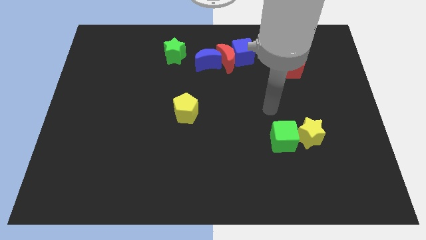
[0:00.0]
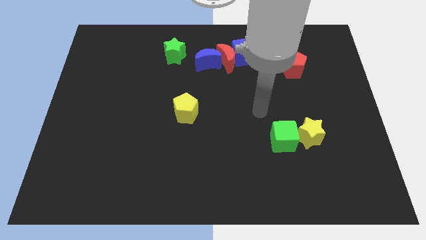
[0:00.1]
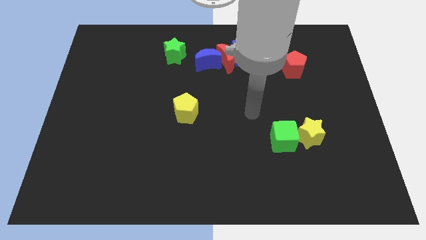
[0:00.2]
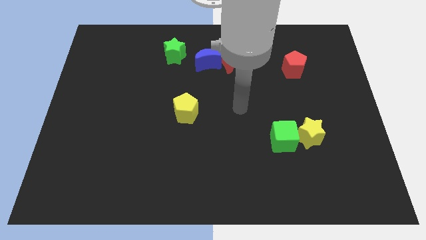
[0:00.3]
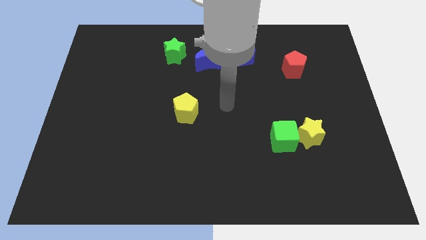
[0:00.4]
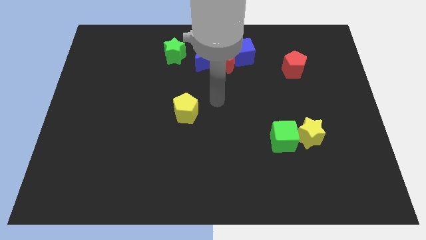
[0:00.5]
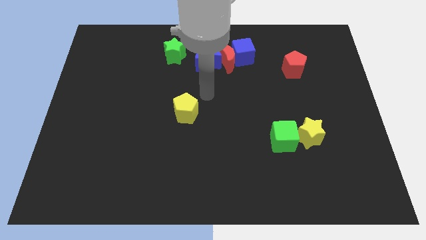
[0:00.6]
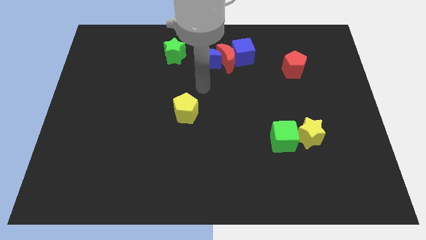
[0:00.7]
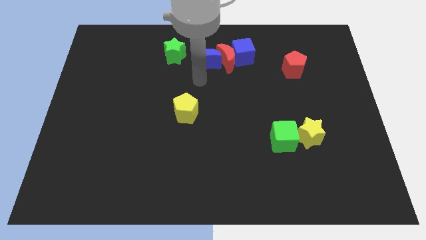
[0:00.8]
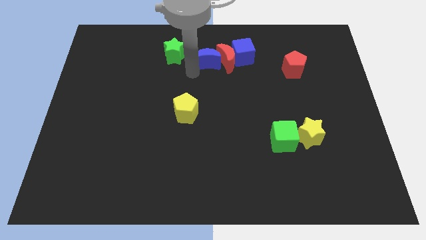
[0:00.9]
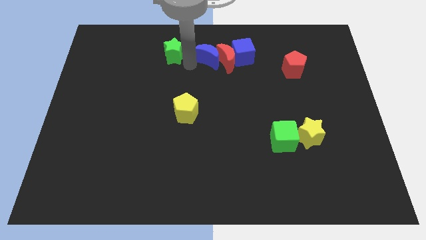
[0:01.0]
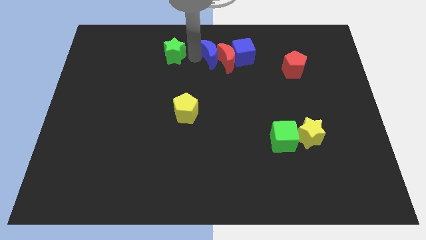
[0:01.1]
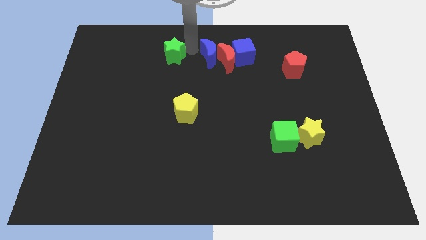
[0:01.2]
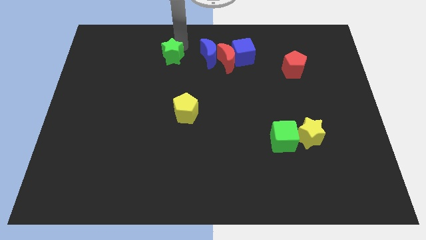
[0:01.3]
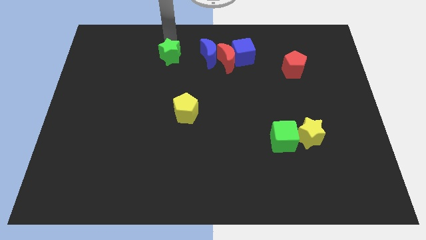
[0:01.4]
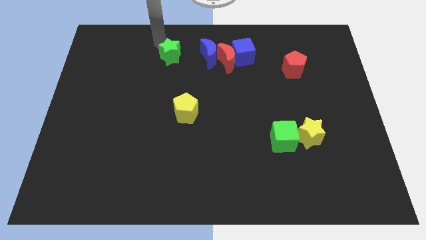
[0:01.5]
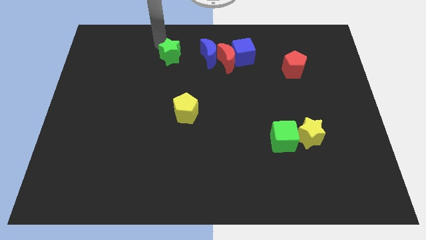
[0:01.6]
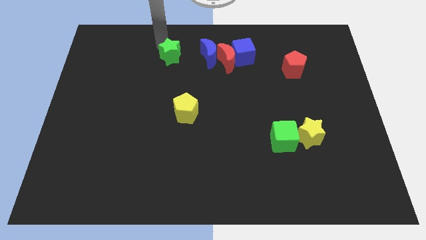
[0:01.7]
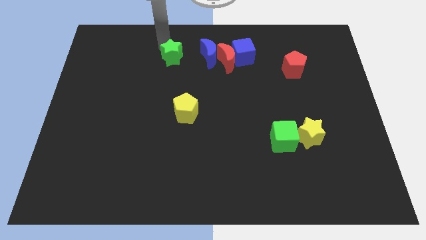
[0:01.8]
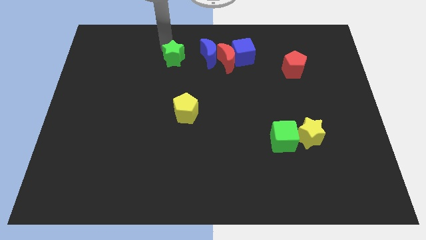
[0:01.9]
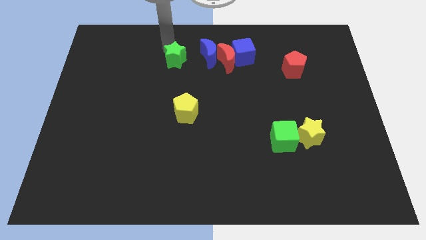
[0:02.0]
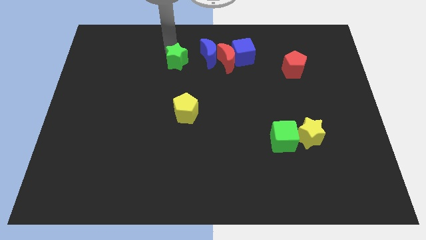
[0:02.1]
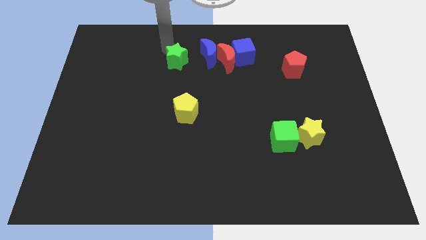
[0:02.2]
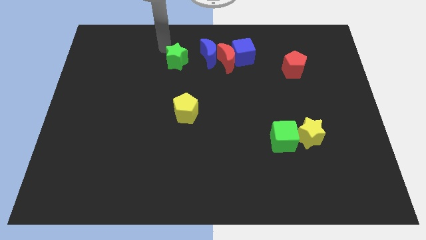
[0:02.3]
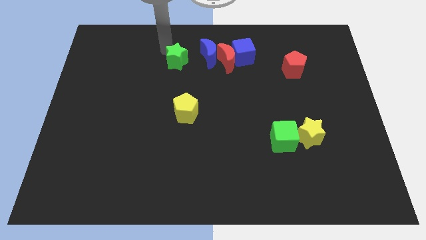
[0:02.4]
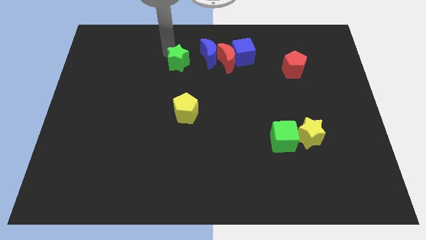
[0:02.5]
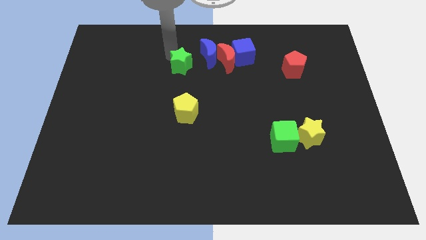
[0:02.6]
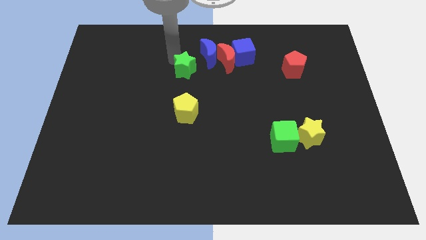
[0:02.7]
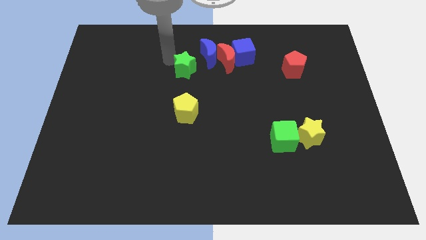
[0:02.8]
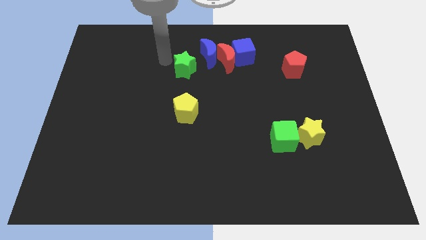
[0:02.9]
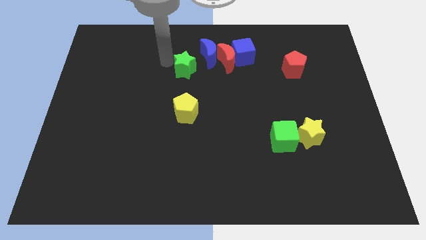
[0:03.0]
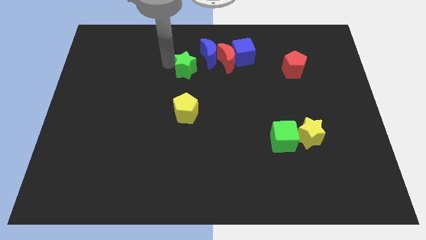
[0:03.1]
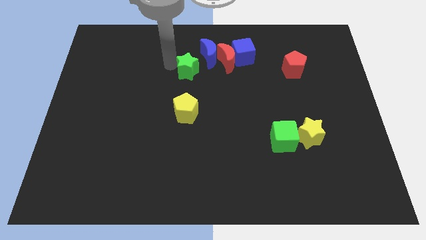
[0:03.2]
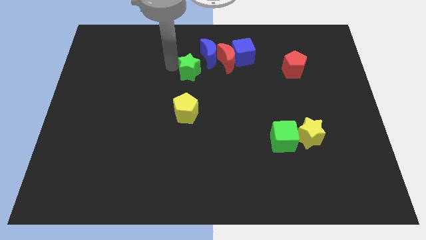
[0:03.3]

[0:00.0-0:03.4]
move the green star somewhat down and then to the right

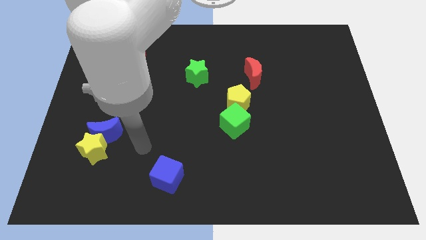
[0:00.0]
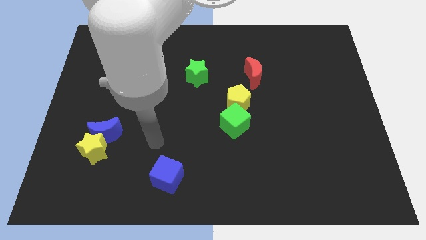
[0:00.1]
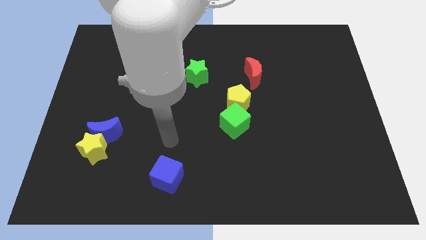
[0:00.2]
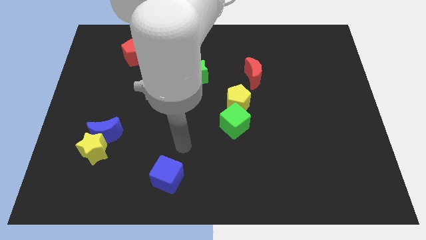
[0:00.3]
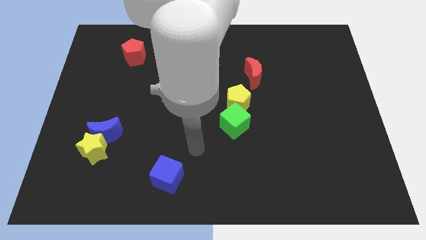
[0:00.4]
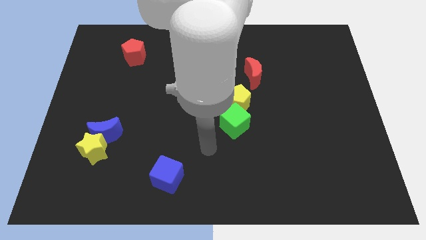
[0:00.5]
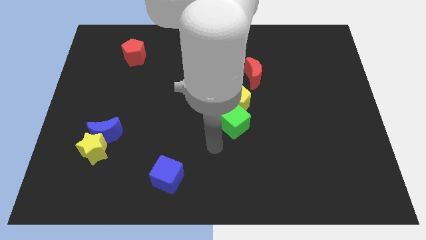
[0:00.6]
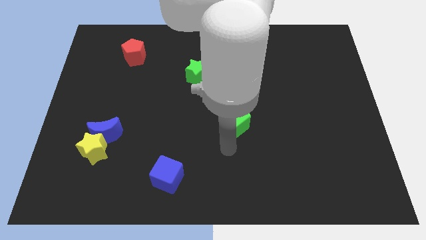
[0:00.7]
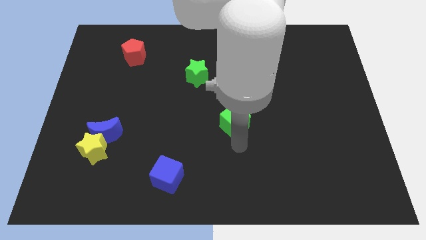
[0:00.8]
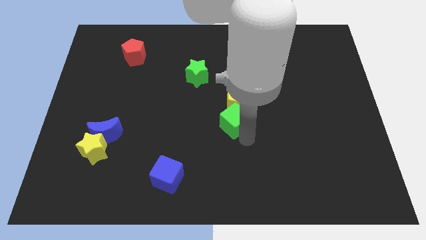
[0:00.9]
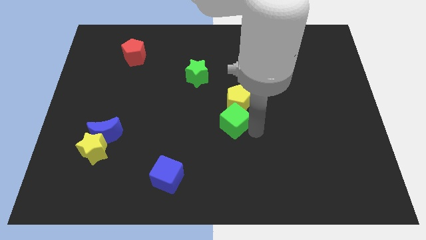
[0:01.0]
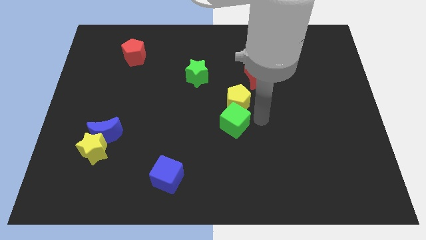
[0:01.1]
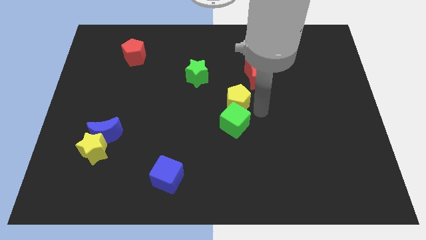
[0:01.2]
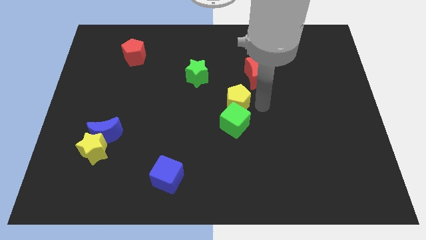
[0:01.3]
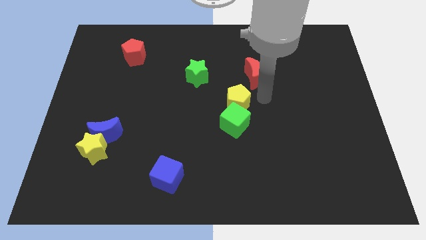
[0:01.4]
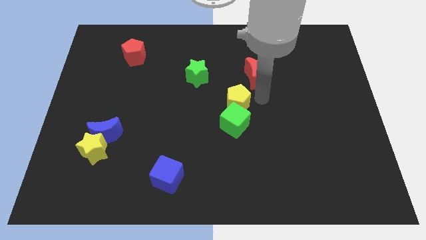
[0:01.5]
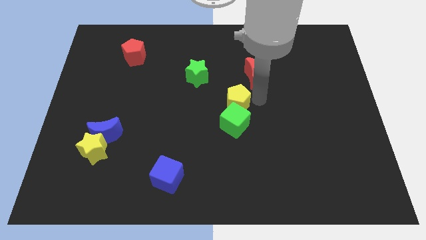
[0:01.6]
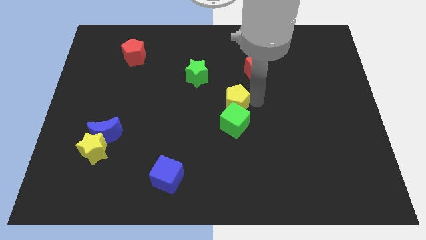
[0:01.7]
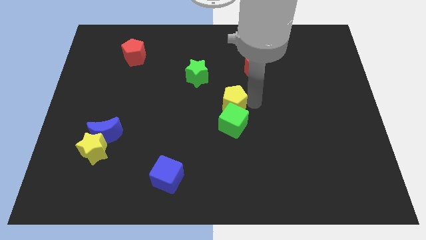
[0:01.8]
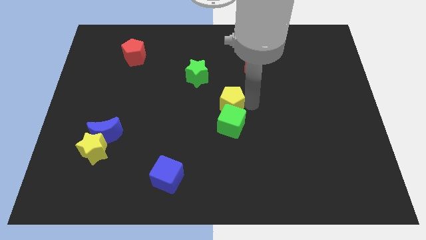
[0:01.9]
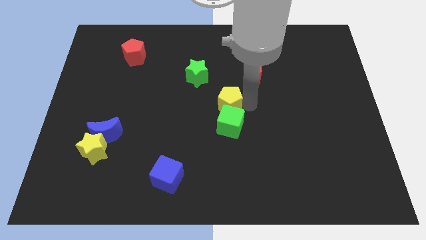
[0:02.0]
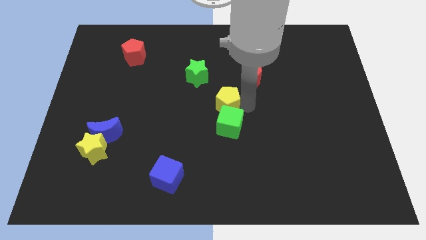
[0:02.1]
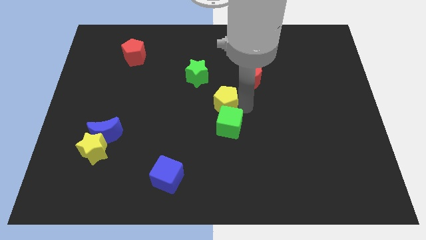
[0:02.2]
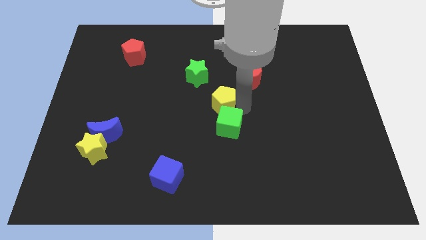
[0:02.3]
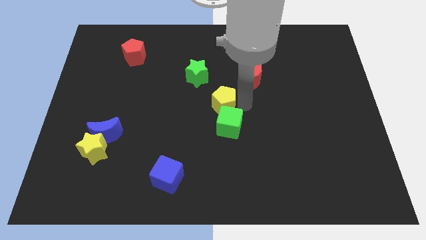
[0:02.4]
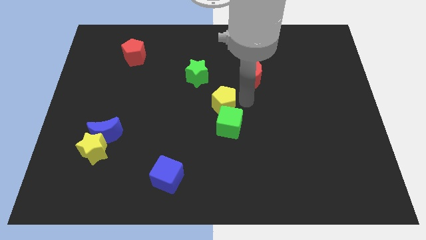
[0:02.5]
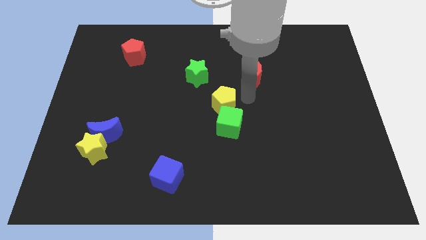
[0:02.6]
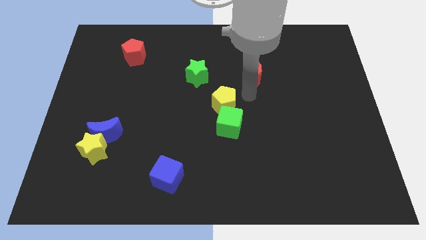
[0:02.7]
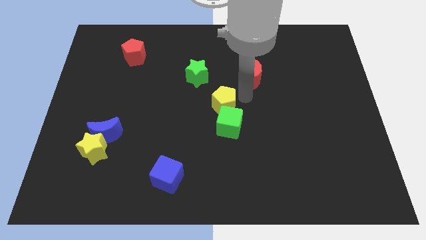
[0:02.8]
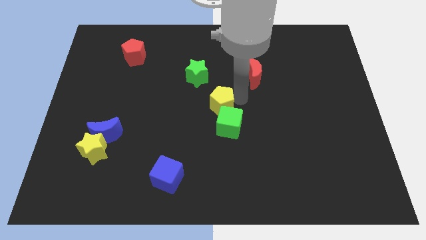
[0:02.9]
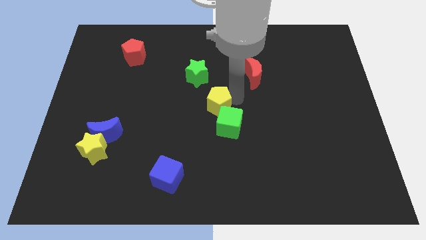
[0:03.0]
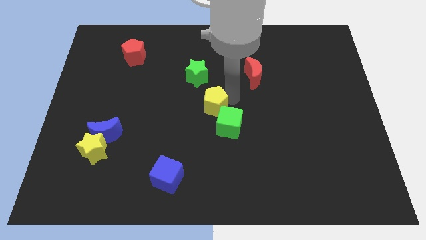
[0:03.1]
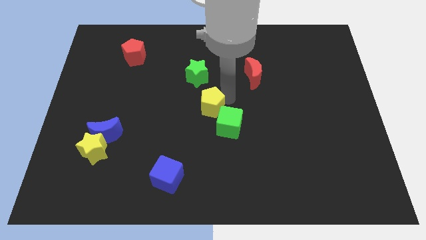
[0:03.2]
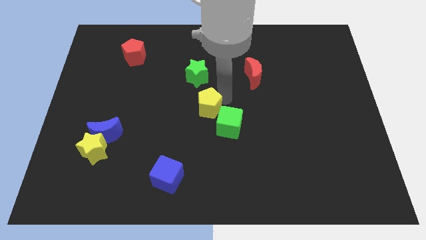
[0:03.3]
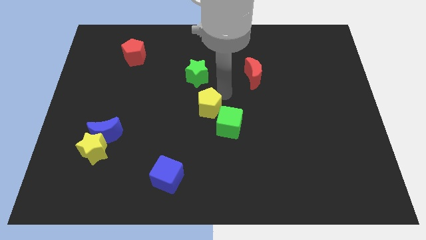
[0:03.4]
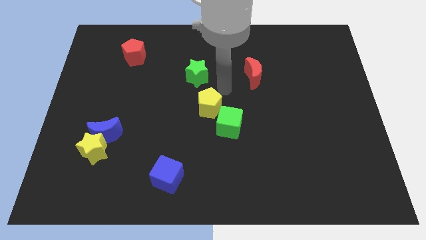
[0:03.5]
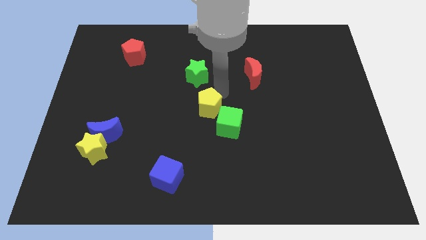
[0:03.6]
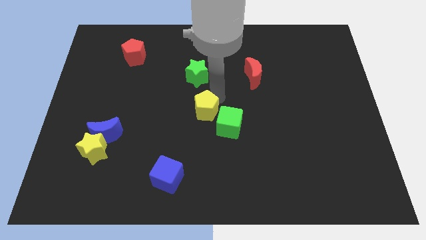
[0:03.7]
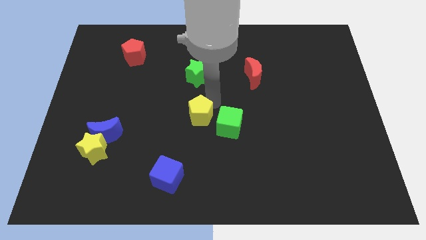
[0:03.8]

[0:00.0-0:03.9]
move the yellow pentagon down and left slightly

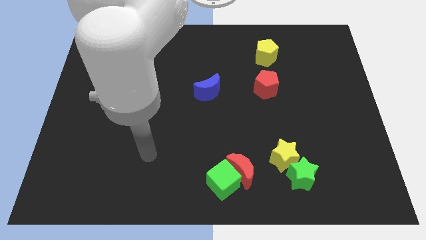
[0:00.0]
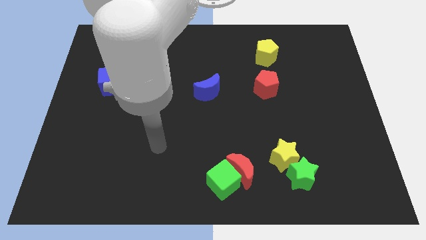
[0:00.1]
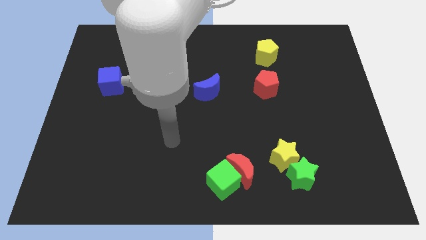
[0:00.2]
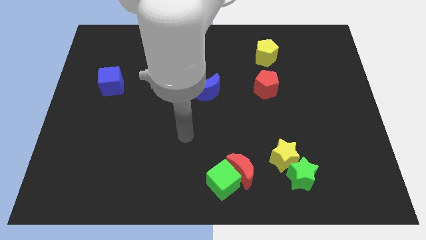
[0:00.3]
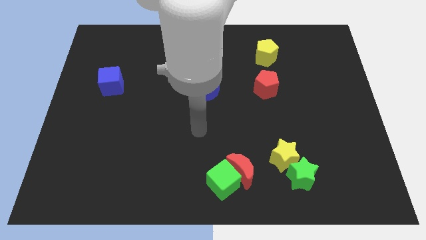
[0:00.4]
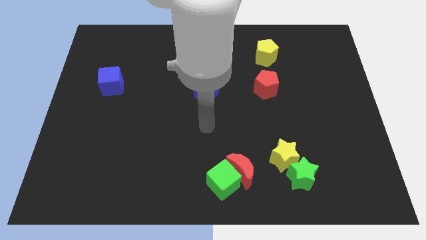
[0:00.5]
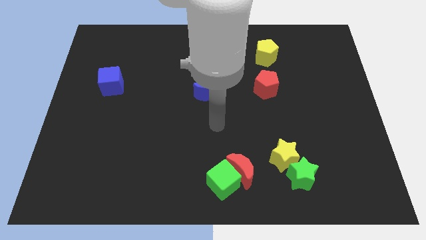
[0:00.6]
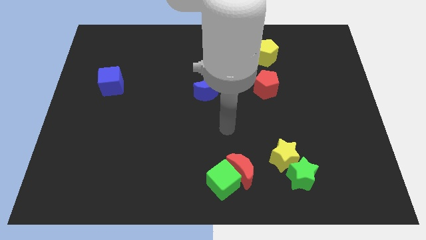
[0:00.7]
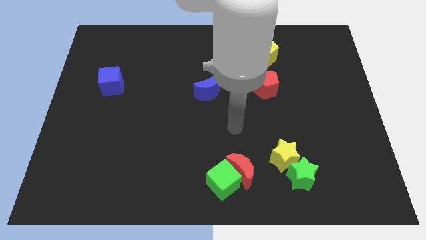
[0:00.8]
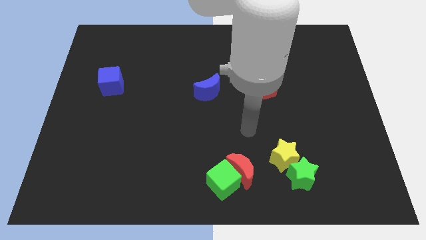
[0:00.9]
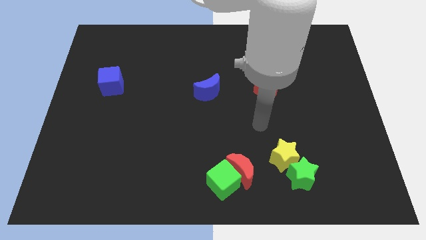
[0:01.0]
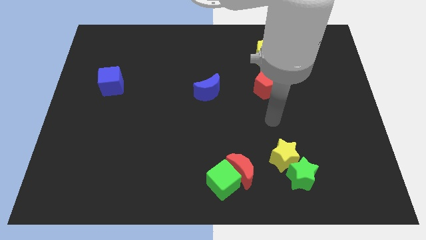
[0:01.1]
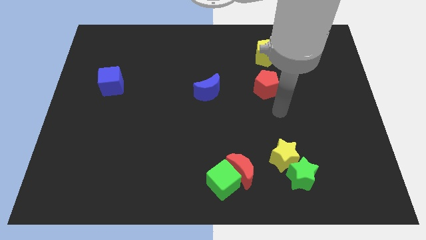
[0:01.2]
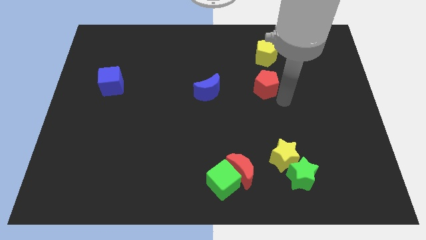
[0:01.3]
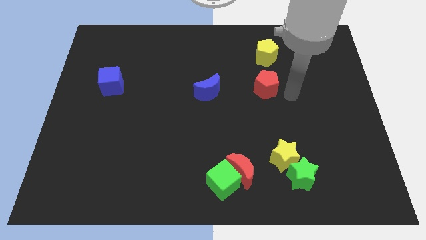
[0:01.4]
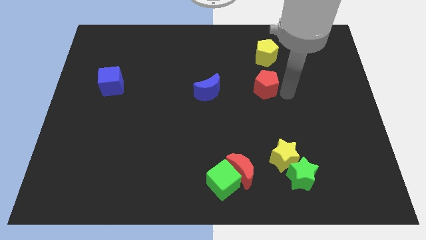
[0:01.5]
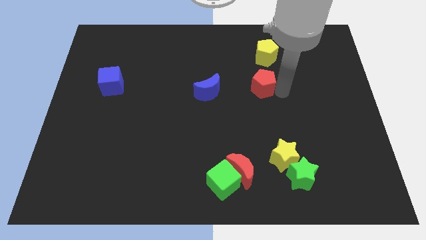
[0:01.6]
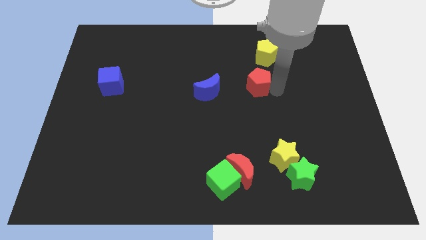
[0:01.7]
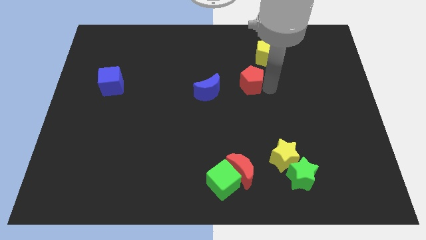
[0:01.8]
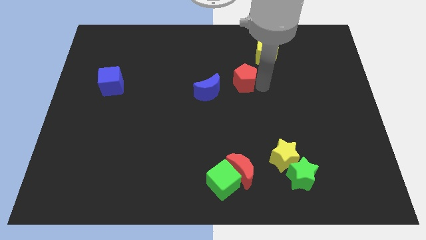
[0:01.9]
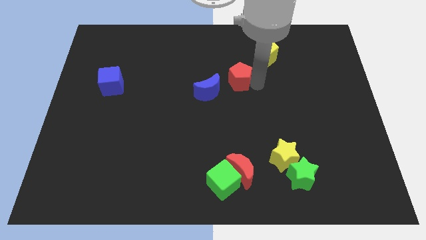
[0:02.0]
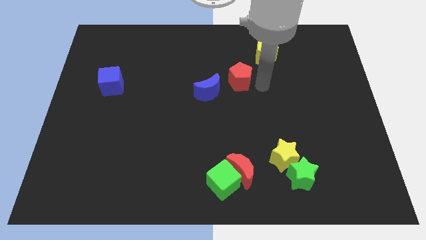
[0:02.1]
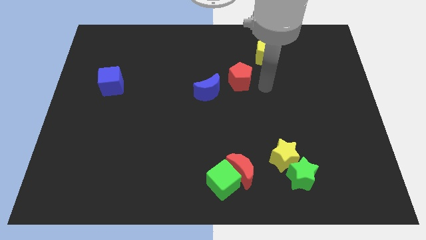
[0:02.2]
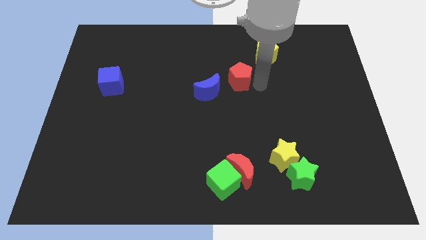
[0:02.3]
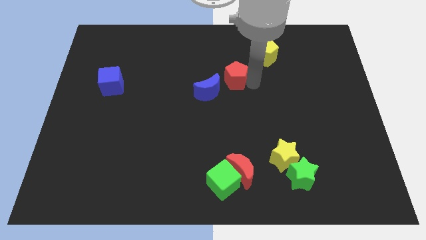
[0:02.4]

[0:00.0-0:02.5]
slide the red pentagon left a little
